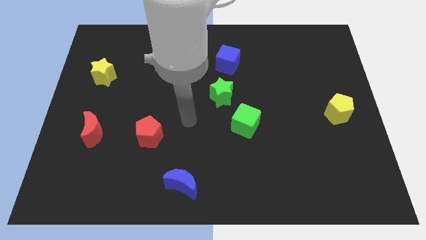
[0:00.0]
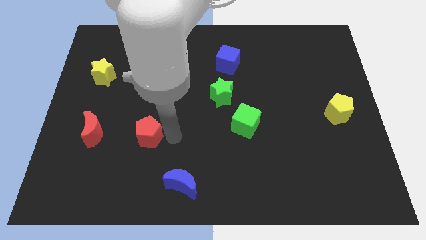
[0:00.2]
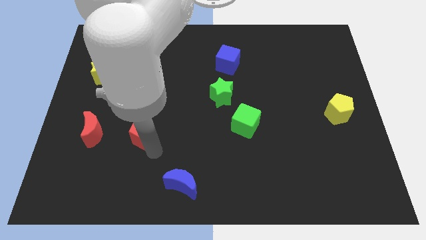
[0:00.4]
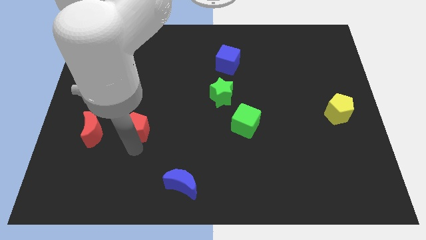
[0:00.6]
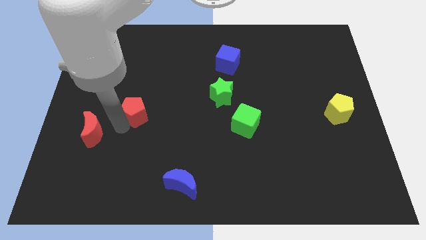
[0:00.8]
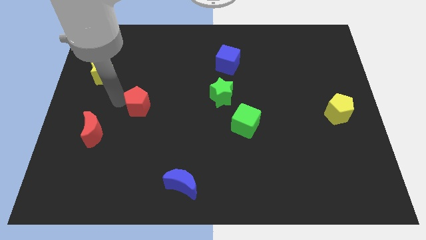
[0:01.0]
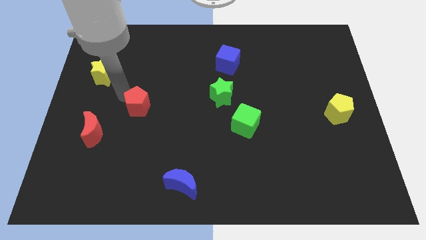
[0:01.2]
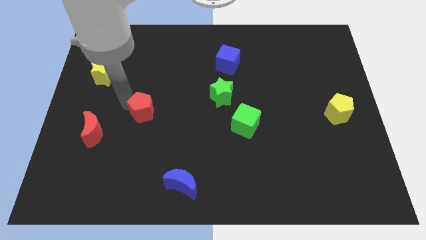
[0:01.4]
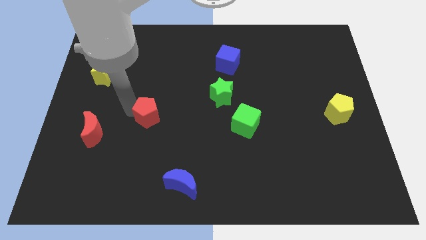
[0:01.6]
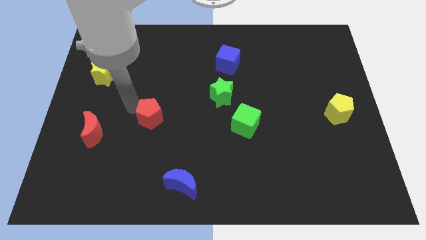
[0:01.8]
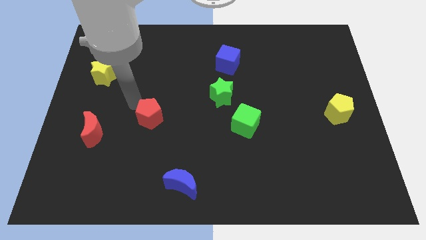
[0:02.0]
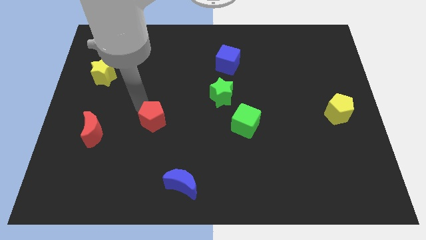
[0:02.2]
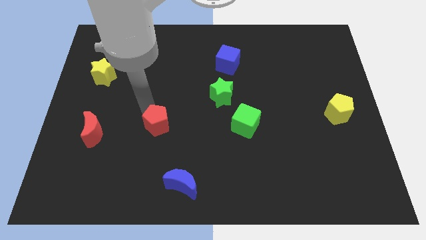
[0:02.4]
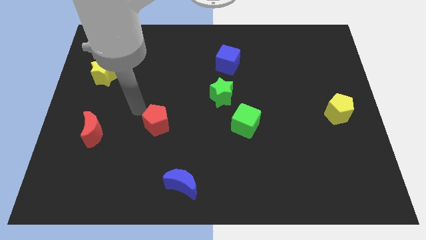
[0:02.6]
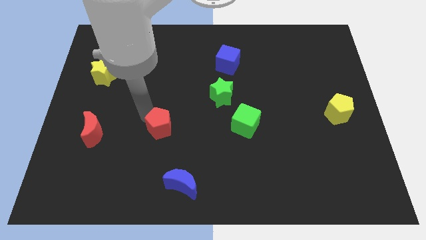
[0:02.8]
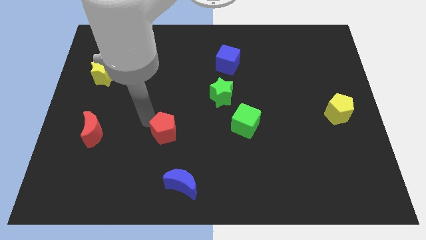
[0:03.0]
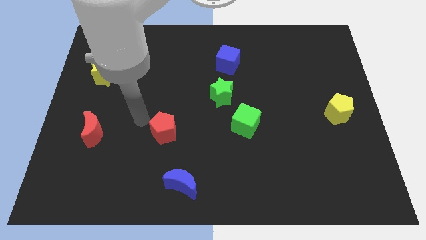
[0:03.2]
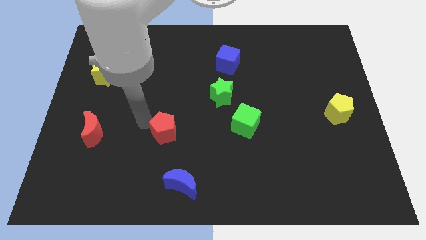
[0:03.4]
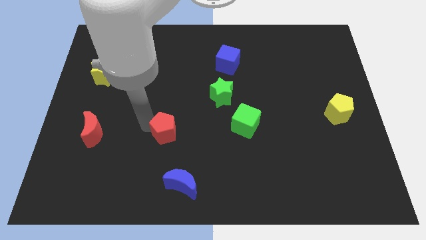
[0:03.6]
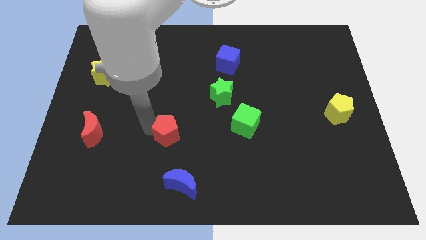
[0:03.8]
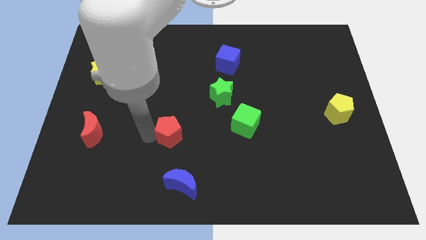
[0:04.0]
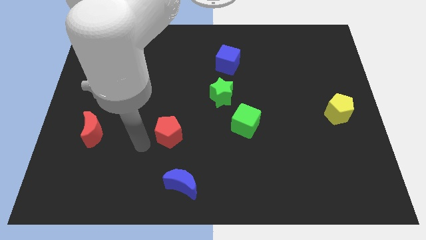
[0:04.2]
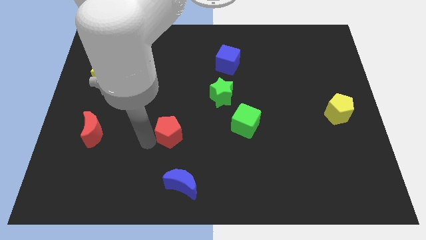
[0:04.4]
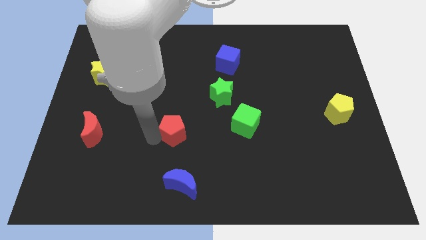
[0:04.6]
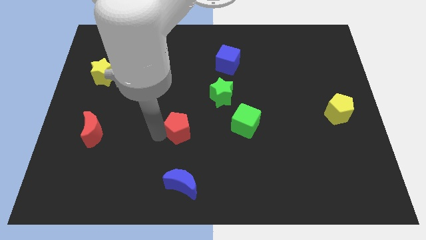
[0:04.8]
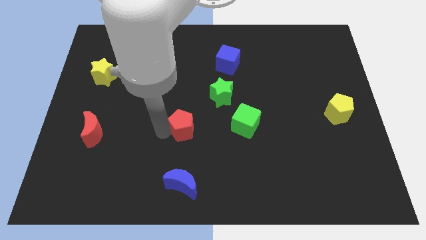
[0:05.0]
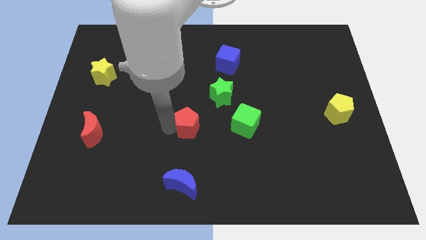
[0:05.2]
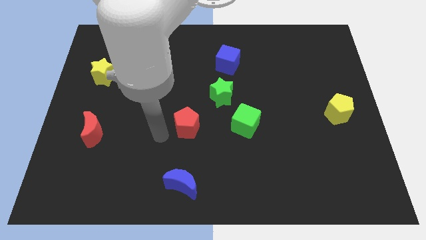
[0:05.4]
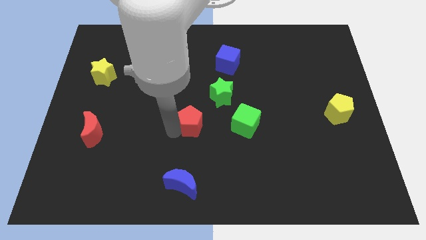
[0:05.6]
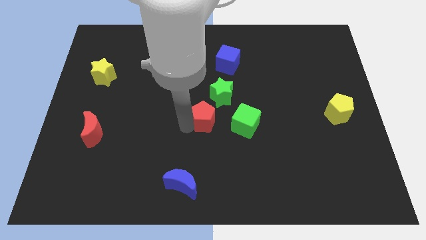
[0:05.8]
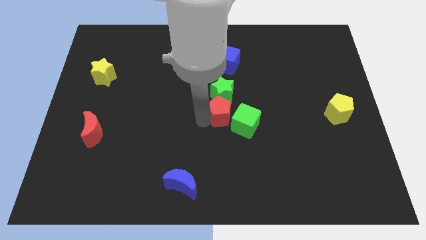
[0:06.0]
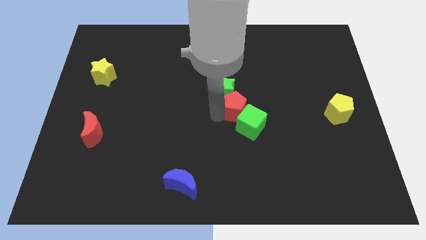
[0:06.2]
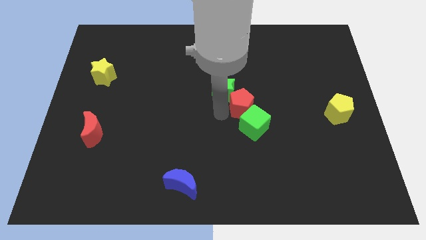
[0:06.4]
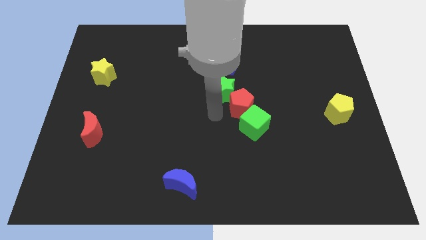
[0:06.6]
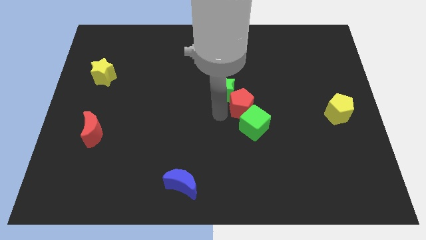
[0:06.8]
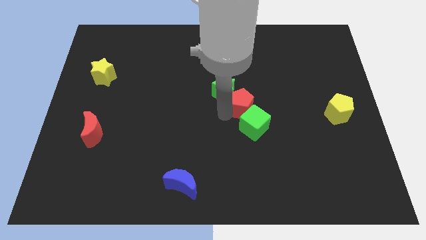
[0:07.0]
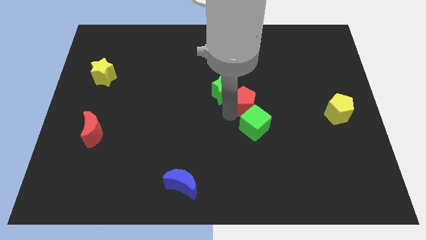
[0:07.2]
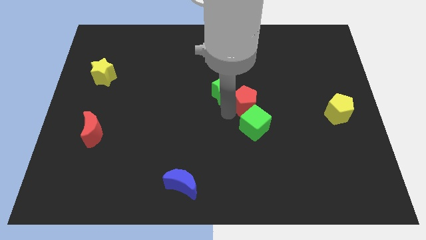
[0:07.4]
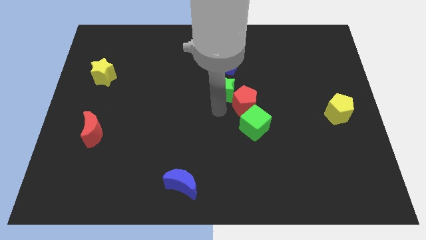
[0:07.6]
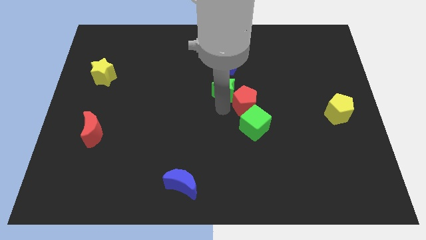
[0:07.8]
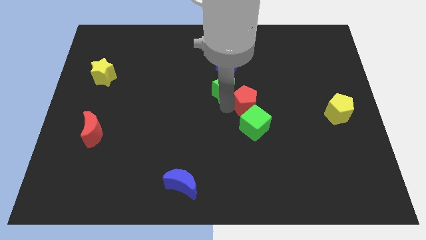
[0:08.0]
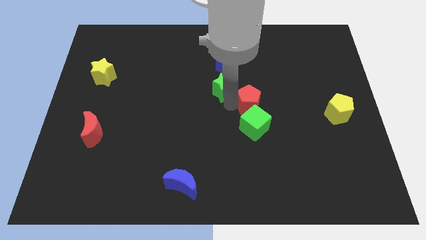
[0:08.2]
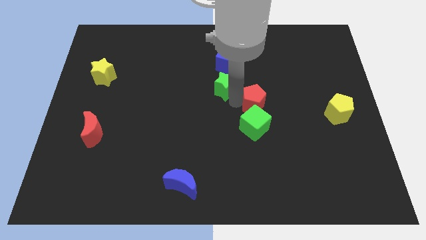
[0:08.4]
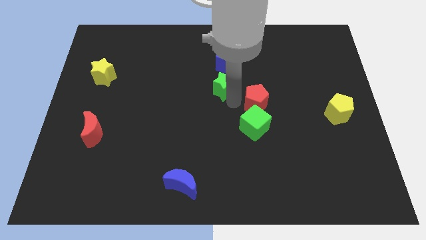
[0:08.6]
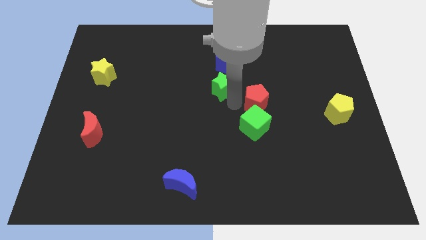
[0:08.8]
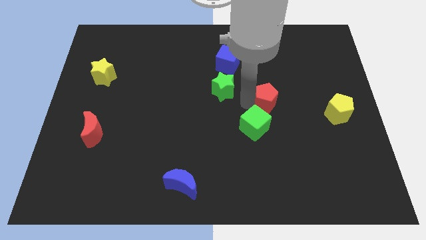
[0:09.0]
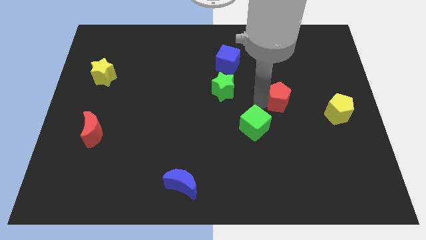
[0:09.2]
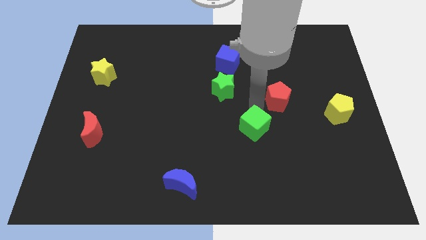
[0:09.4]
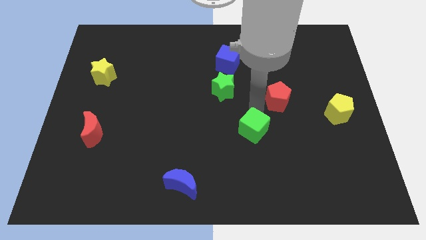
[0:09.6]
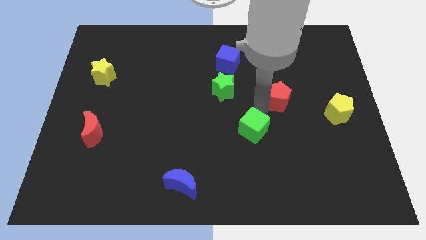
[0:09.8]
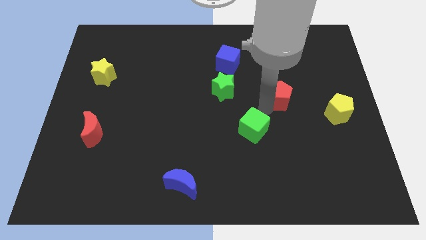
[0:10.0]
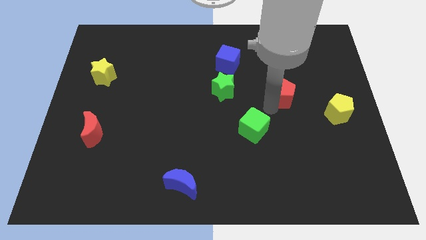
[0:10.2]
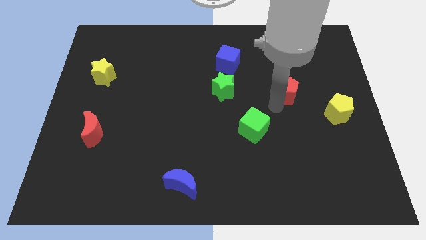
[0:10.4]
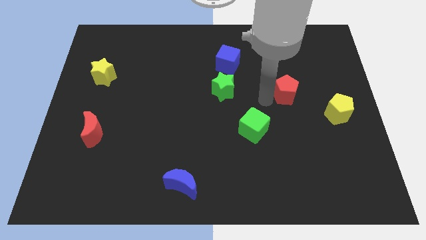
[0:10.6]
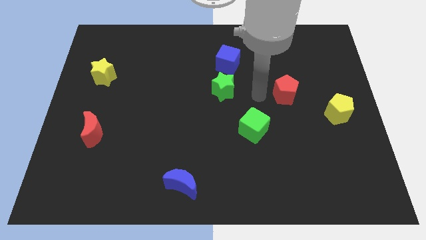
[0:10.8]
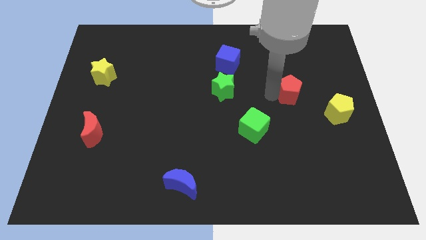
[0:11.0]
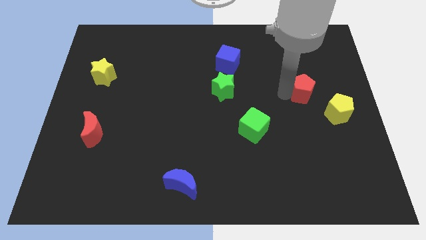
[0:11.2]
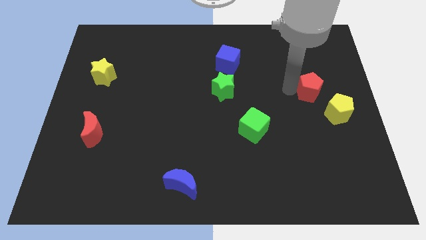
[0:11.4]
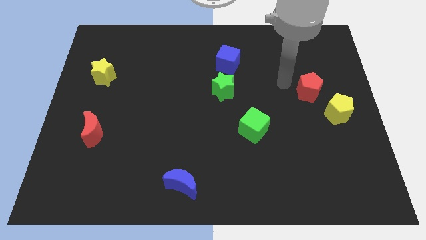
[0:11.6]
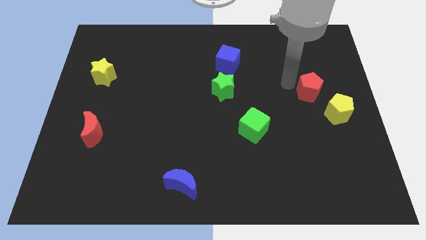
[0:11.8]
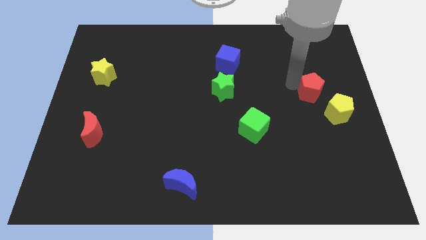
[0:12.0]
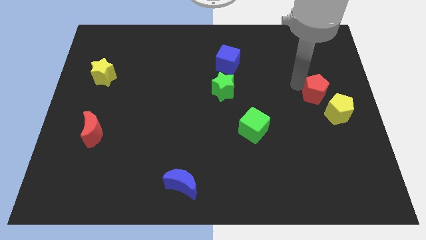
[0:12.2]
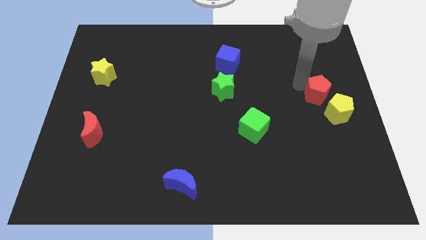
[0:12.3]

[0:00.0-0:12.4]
slide the red pentagon to the center right
